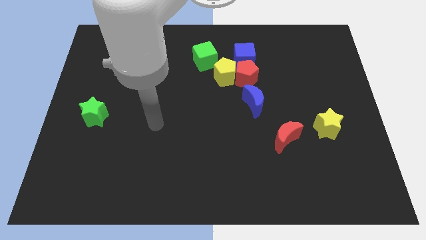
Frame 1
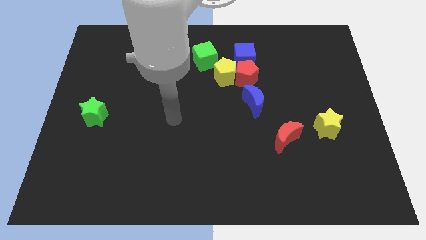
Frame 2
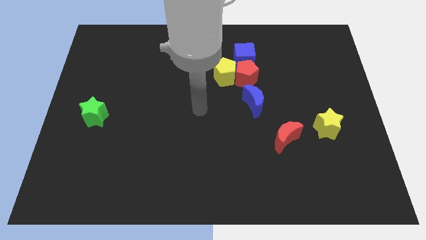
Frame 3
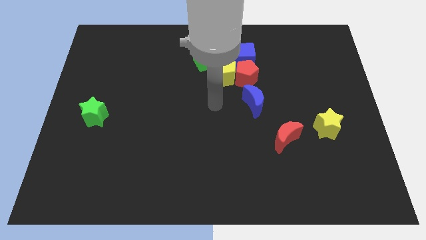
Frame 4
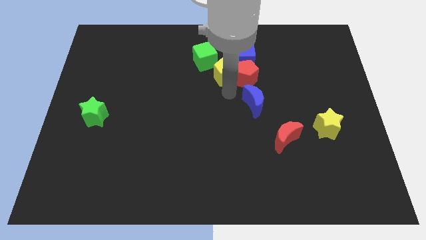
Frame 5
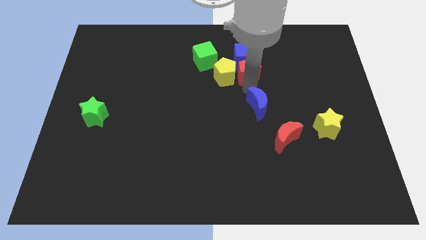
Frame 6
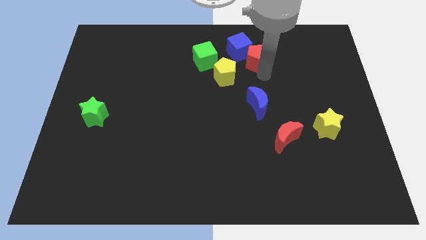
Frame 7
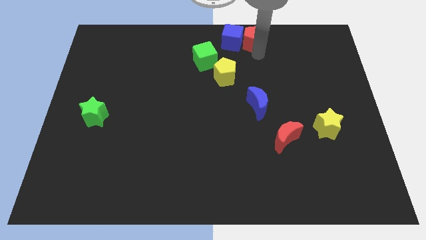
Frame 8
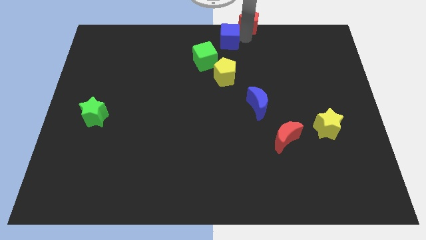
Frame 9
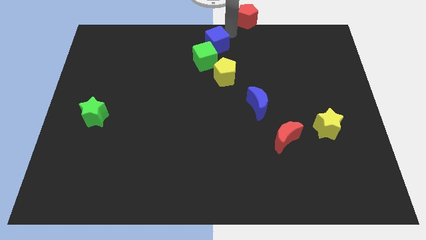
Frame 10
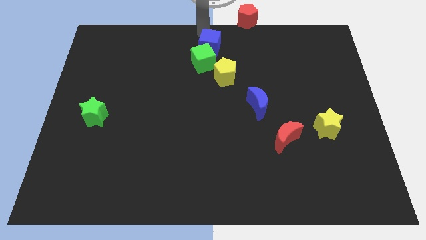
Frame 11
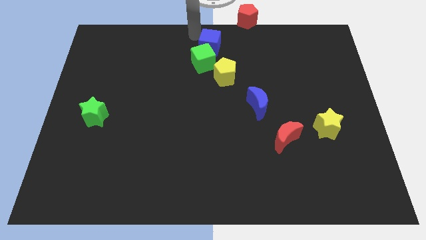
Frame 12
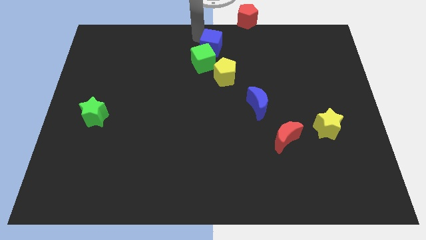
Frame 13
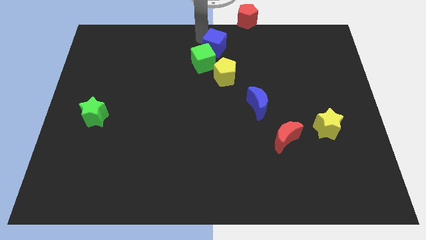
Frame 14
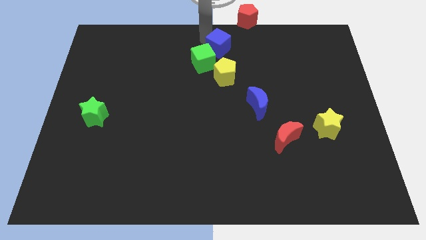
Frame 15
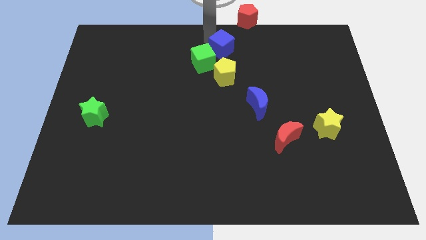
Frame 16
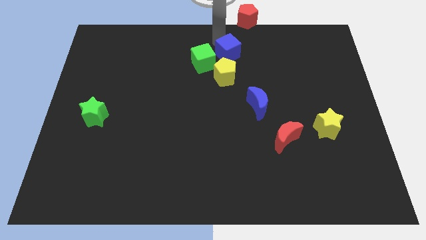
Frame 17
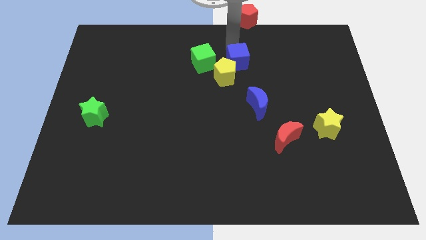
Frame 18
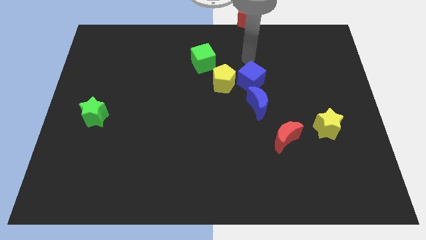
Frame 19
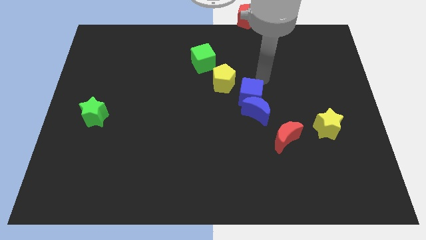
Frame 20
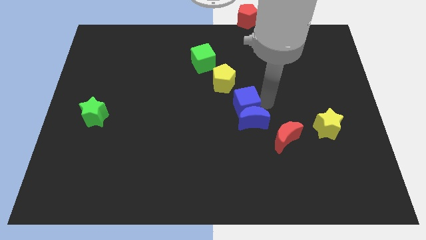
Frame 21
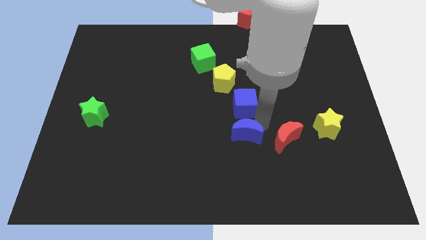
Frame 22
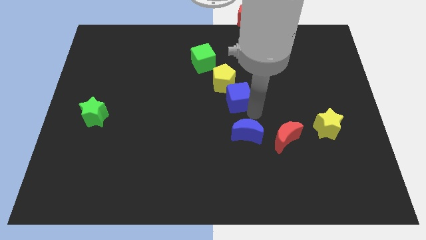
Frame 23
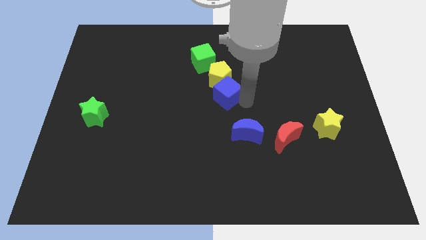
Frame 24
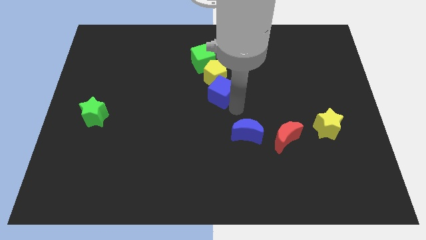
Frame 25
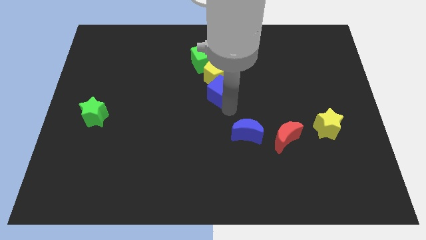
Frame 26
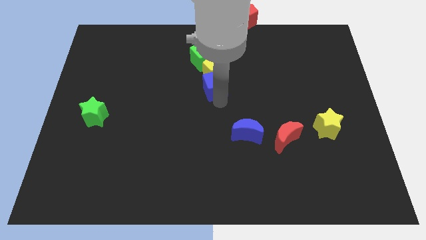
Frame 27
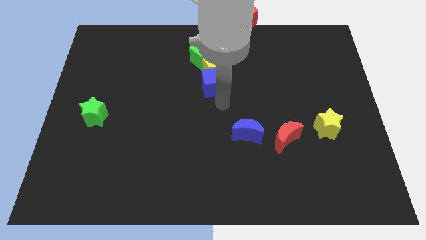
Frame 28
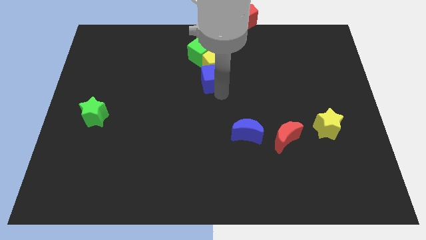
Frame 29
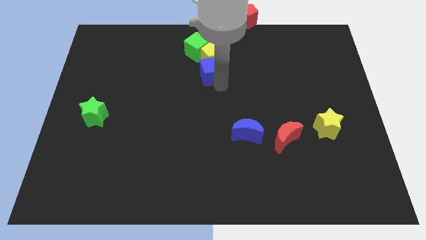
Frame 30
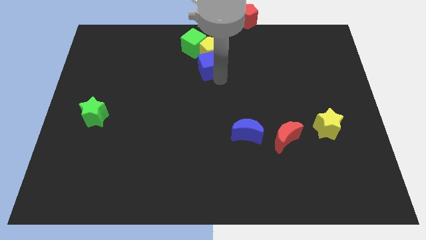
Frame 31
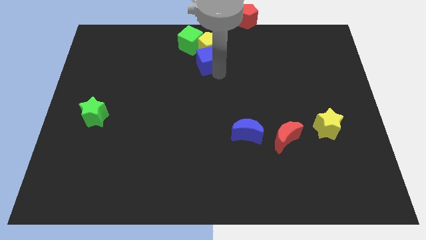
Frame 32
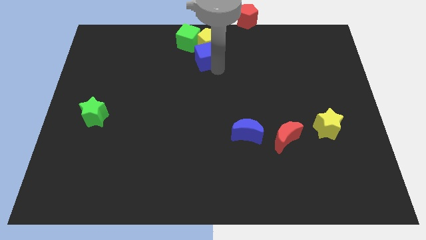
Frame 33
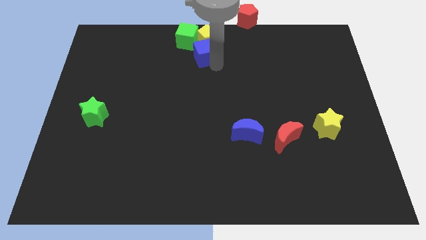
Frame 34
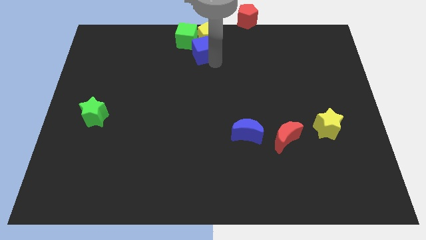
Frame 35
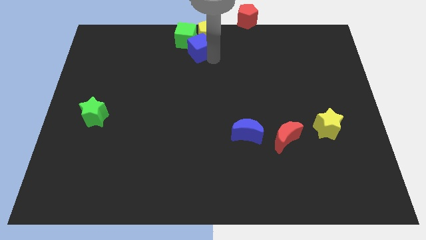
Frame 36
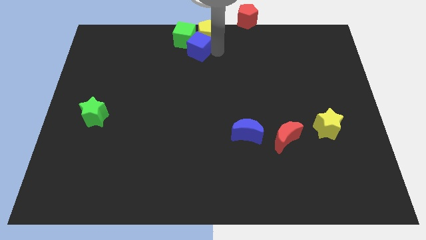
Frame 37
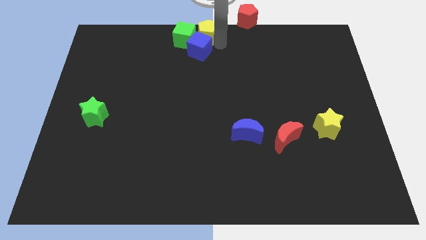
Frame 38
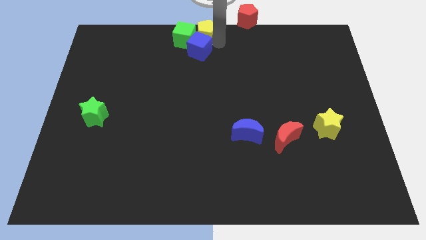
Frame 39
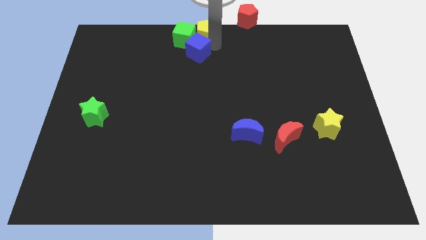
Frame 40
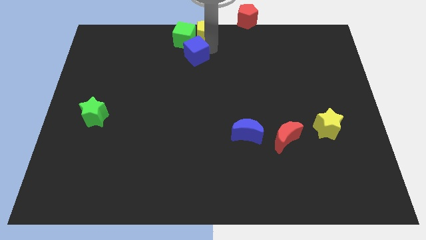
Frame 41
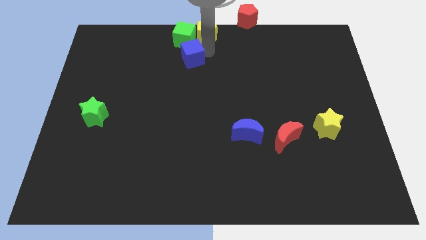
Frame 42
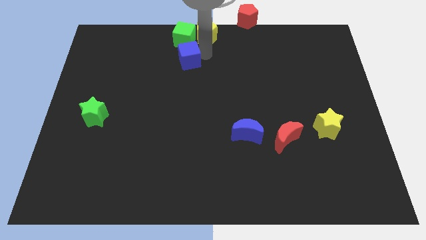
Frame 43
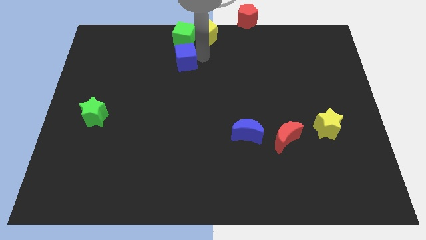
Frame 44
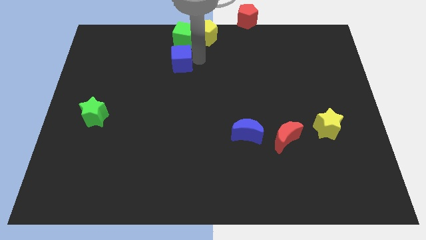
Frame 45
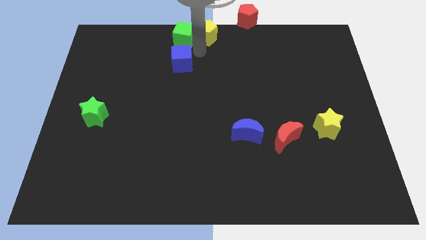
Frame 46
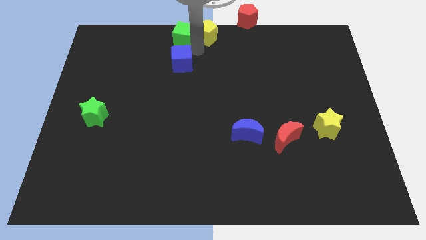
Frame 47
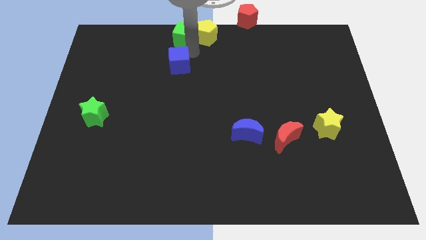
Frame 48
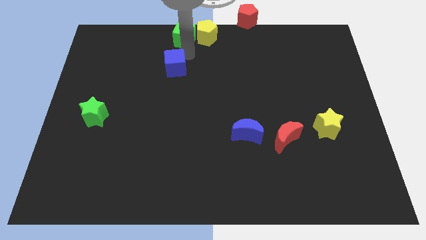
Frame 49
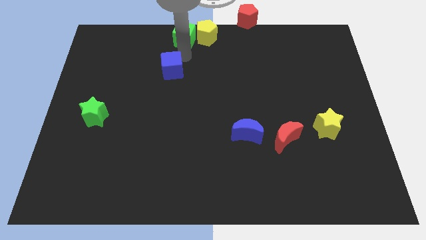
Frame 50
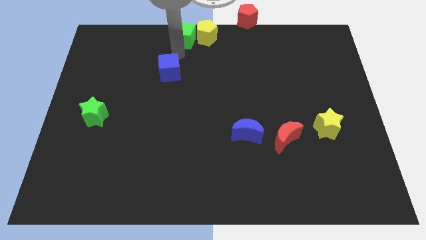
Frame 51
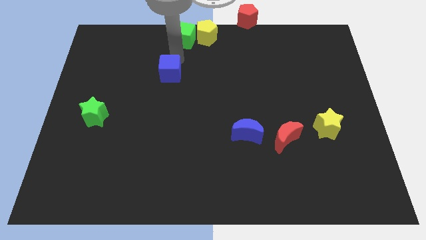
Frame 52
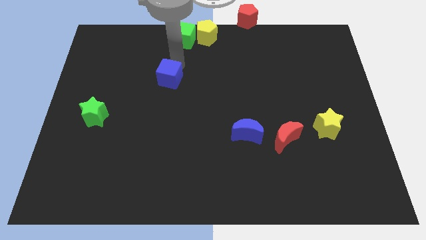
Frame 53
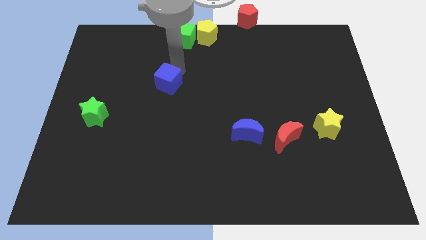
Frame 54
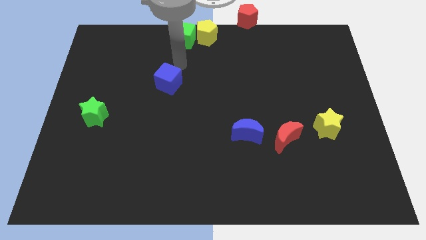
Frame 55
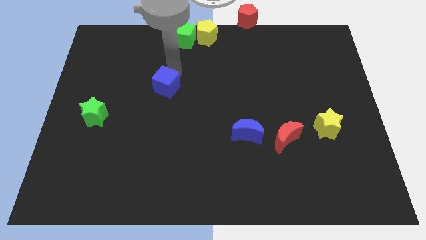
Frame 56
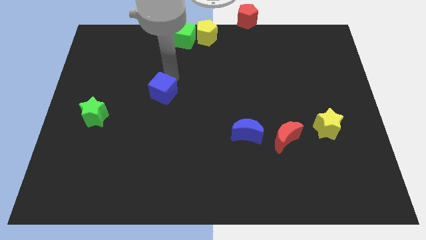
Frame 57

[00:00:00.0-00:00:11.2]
move the blue cube diagonally down and to the left

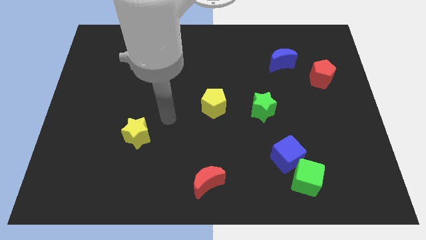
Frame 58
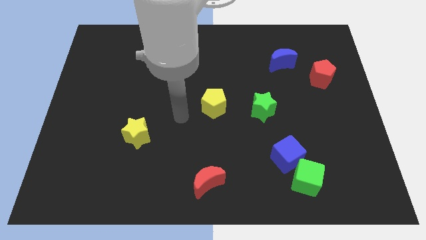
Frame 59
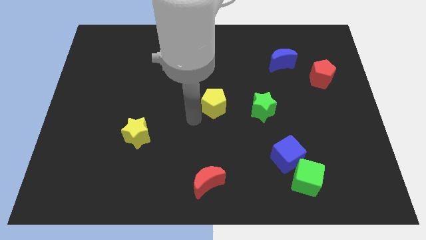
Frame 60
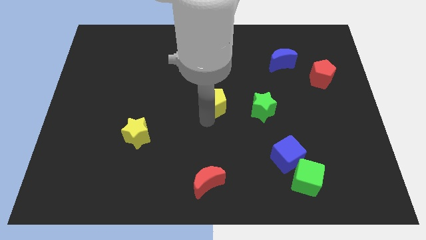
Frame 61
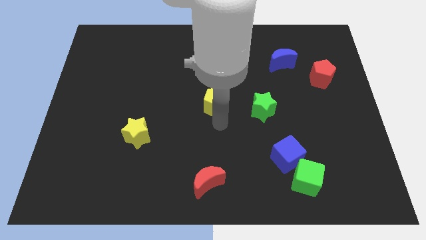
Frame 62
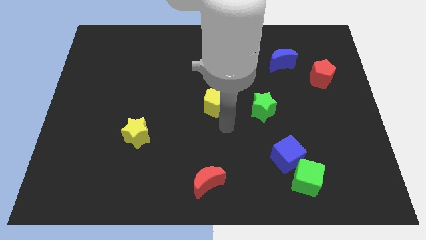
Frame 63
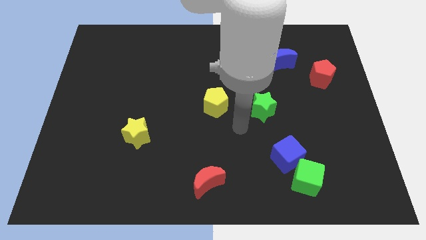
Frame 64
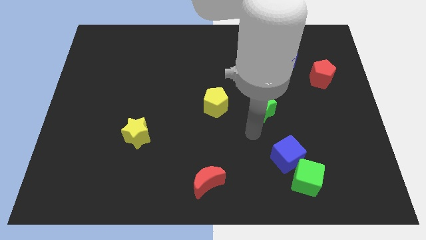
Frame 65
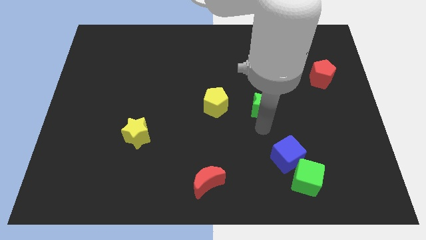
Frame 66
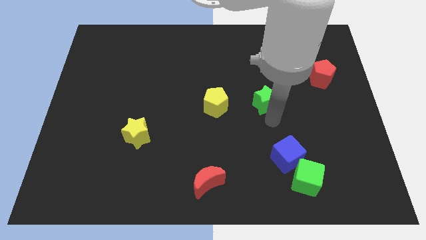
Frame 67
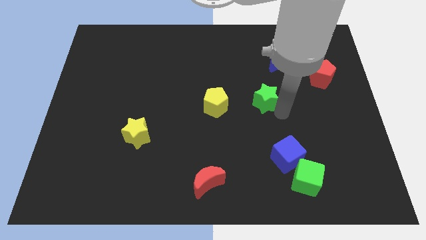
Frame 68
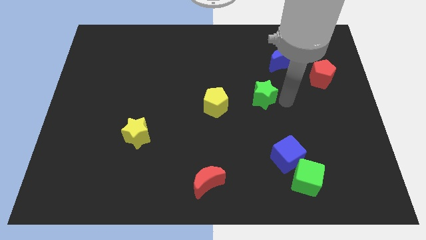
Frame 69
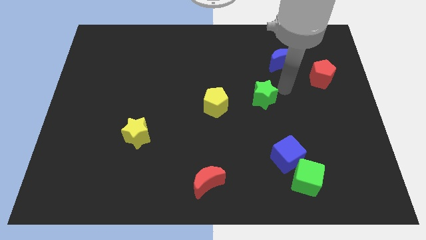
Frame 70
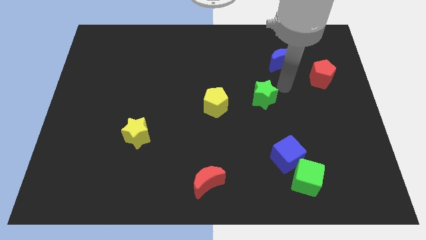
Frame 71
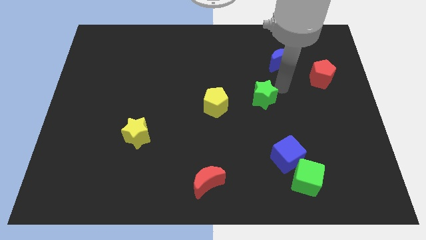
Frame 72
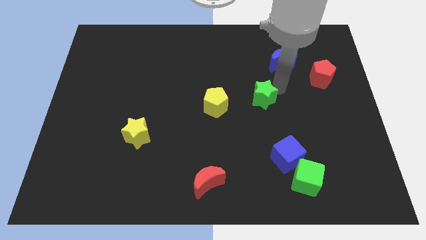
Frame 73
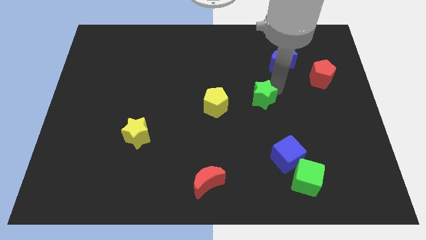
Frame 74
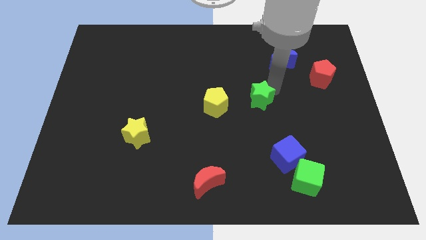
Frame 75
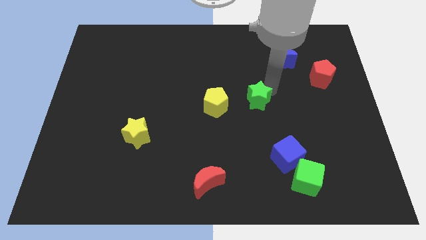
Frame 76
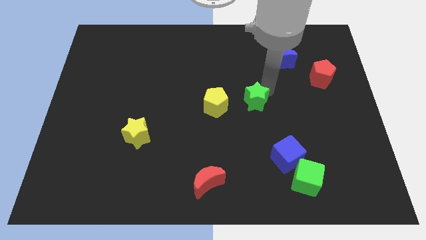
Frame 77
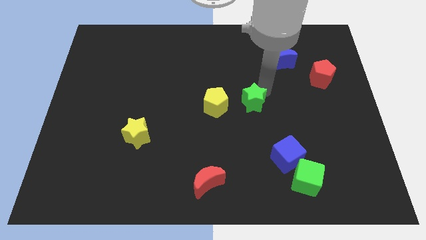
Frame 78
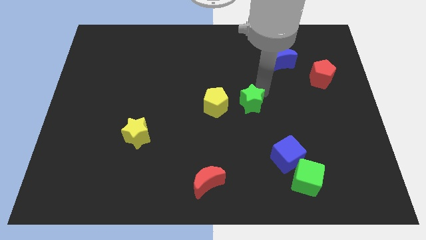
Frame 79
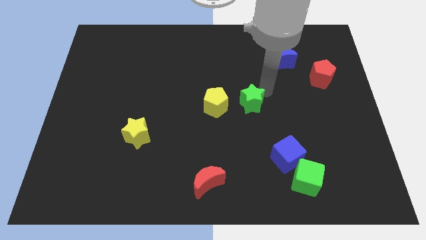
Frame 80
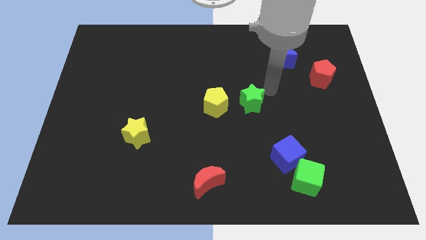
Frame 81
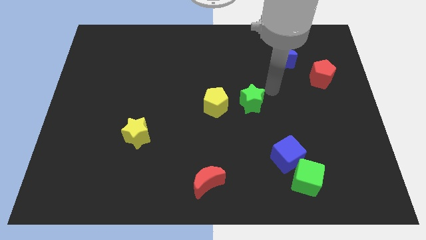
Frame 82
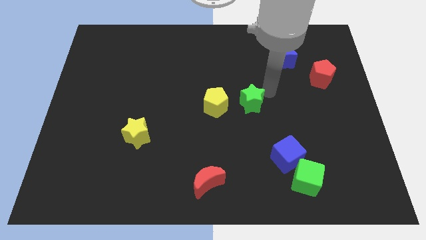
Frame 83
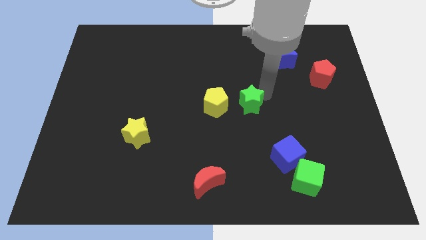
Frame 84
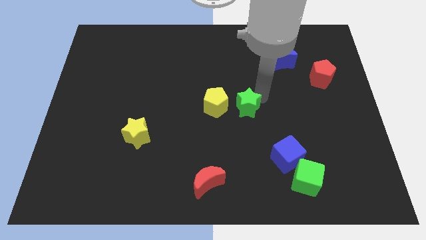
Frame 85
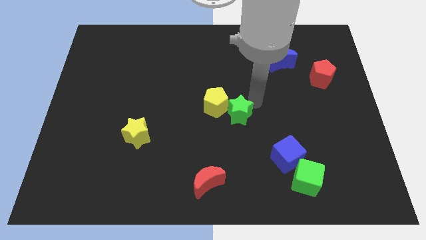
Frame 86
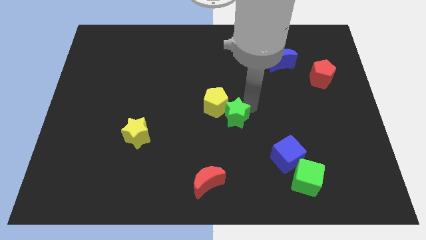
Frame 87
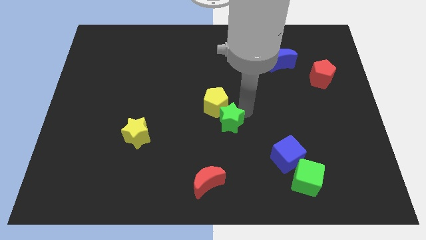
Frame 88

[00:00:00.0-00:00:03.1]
slide the green star left slightly
